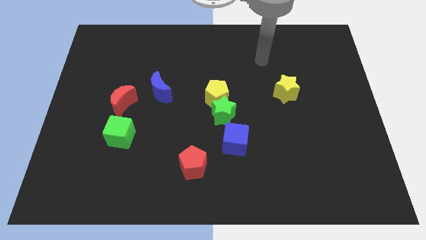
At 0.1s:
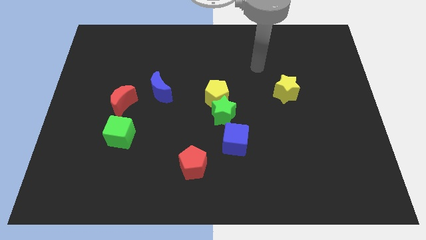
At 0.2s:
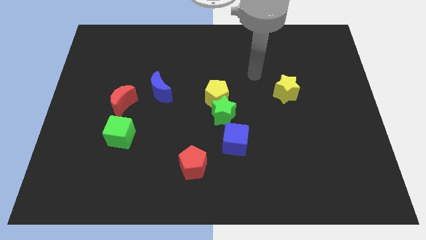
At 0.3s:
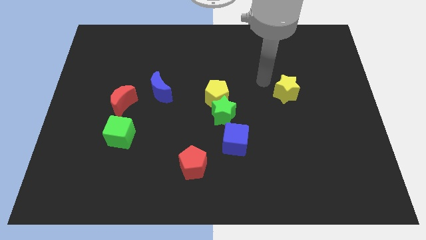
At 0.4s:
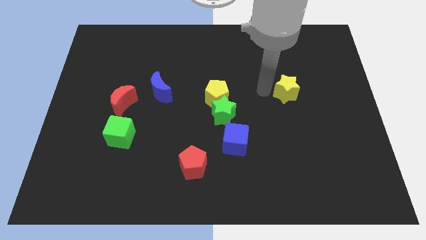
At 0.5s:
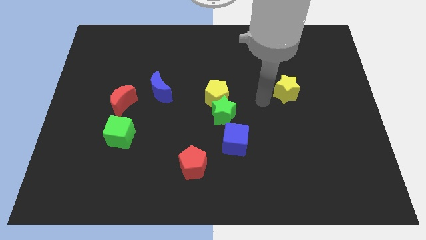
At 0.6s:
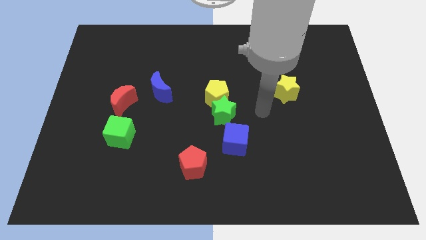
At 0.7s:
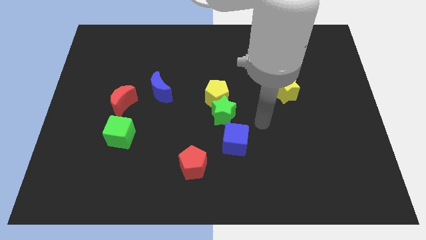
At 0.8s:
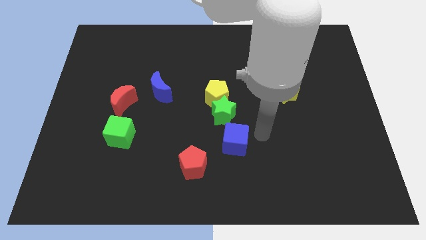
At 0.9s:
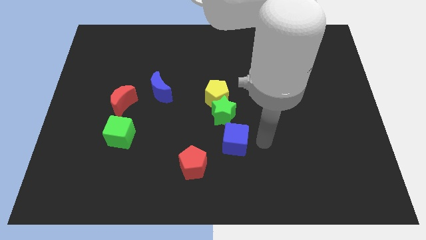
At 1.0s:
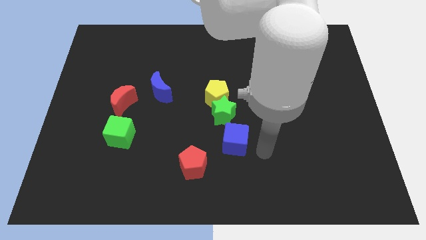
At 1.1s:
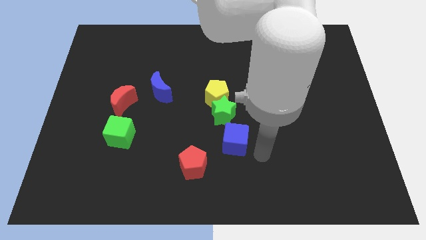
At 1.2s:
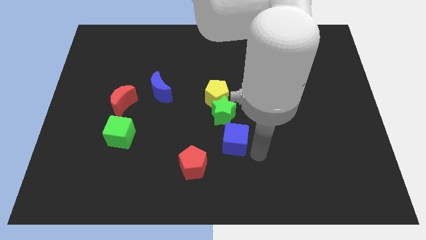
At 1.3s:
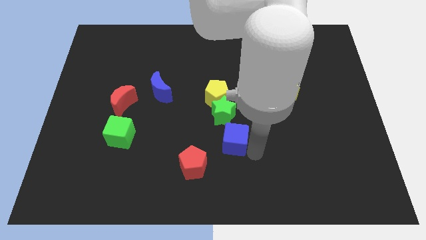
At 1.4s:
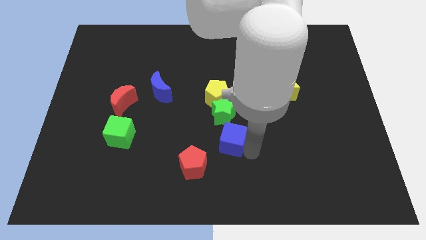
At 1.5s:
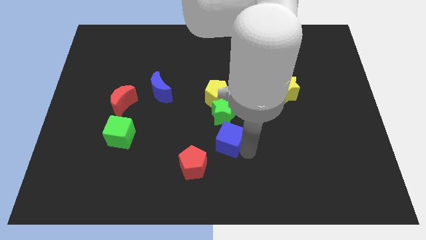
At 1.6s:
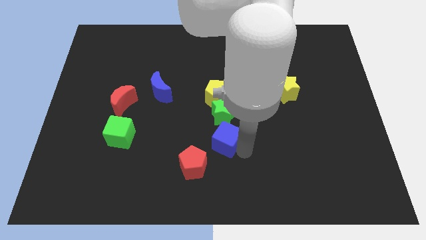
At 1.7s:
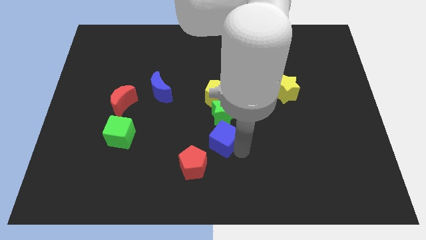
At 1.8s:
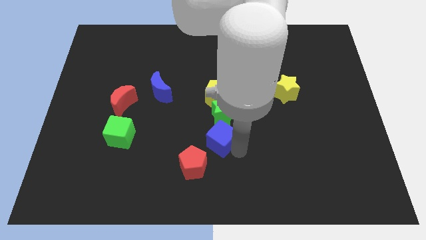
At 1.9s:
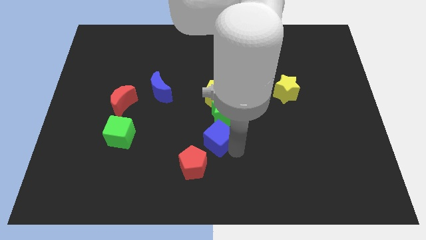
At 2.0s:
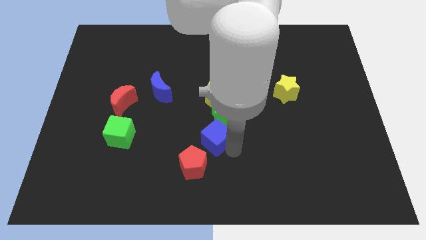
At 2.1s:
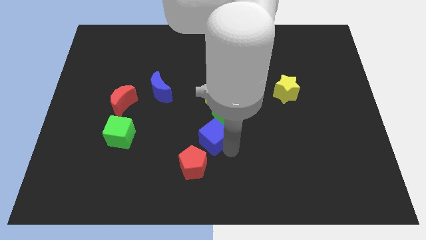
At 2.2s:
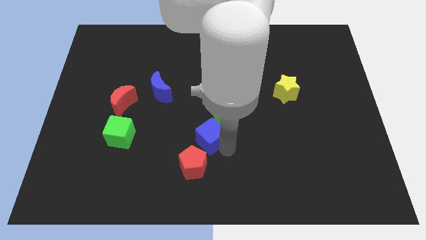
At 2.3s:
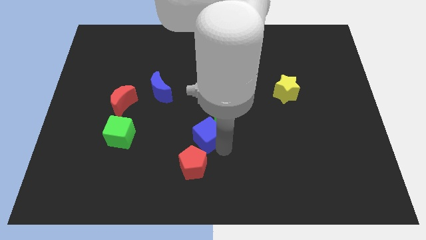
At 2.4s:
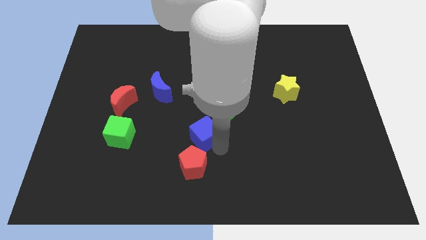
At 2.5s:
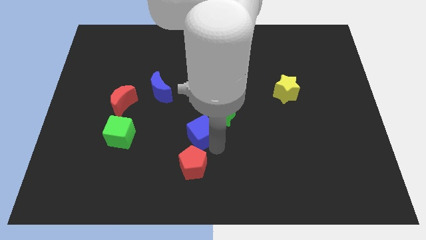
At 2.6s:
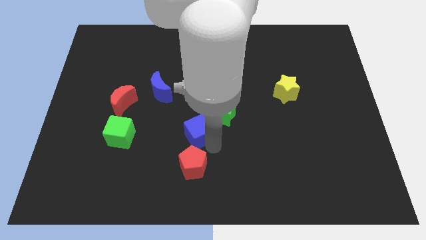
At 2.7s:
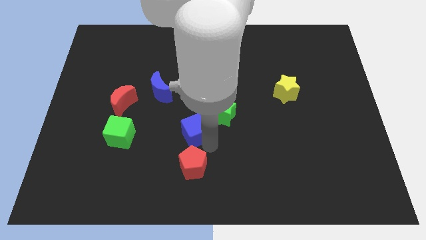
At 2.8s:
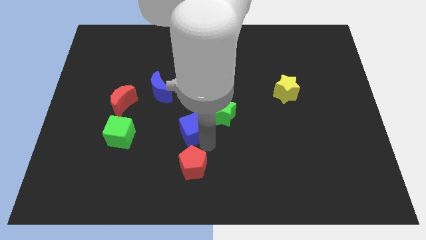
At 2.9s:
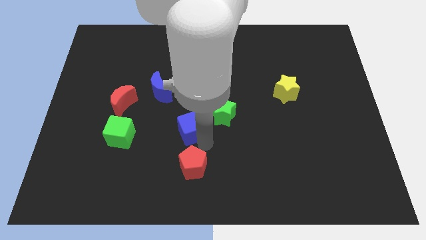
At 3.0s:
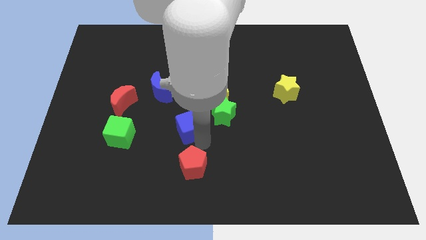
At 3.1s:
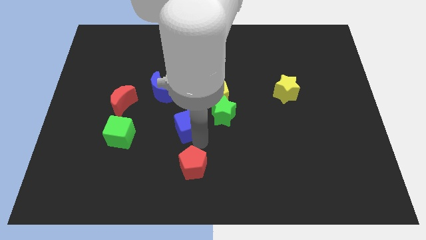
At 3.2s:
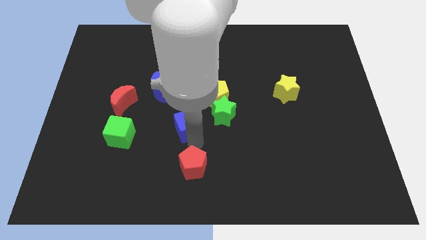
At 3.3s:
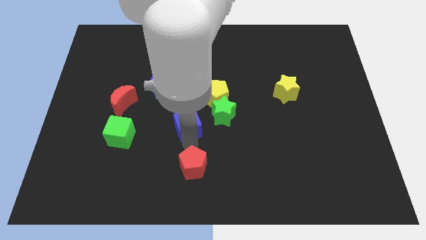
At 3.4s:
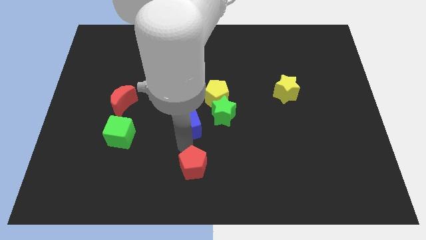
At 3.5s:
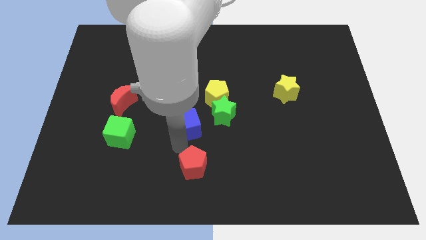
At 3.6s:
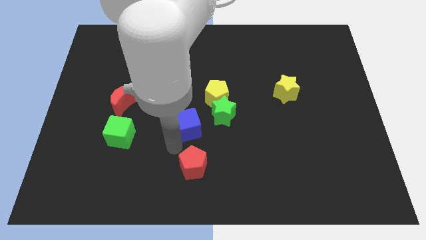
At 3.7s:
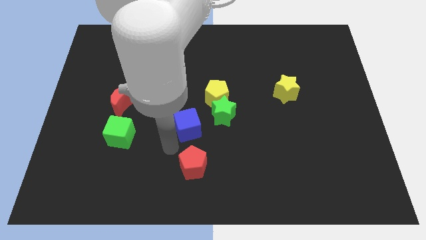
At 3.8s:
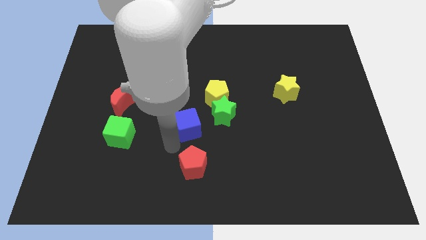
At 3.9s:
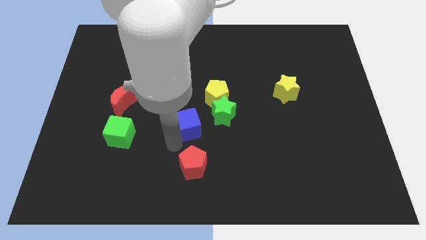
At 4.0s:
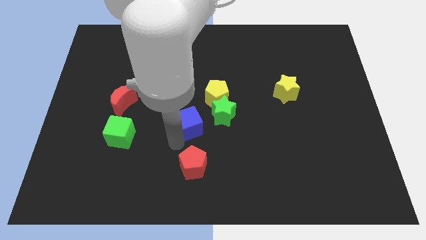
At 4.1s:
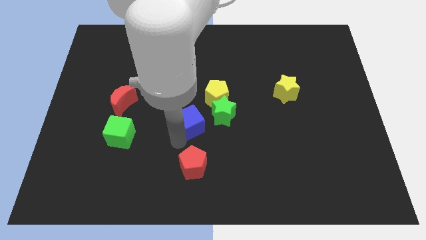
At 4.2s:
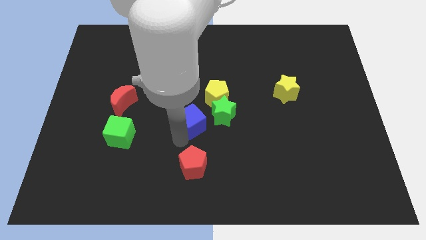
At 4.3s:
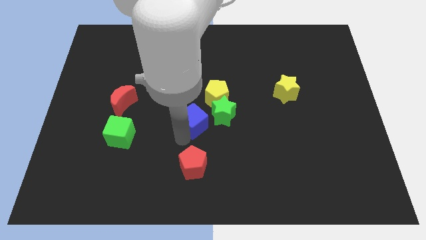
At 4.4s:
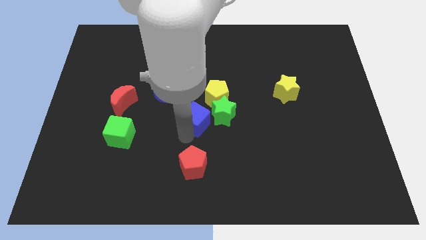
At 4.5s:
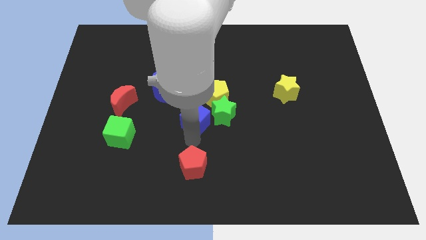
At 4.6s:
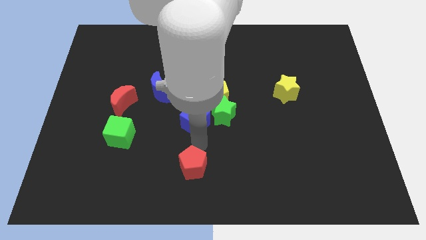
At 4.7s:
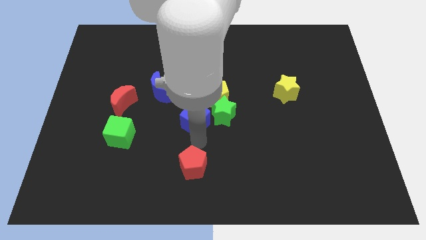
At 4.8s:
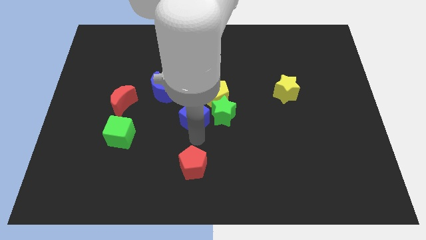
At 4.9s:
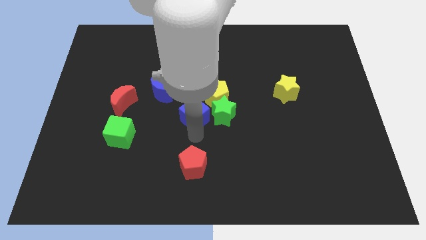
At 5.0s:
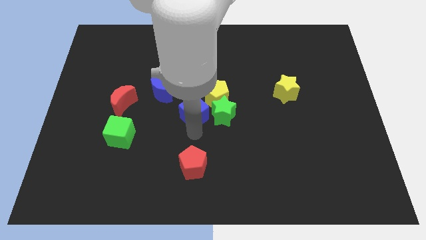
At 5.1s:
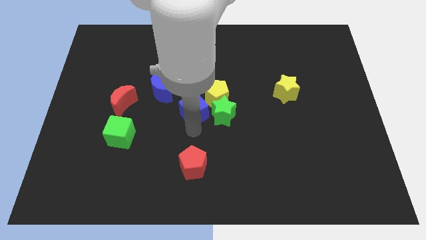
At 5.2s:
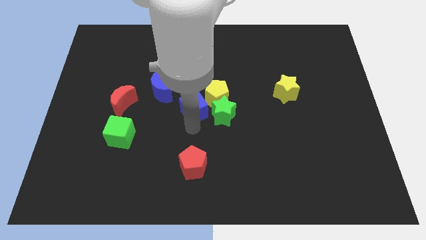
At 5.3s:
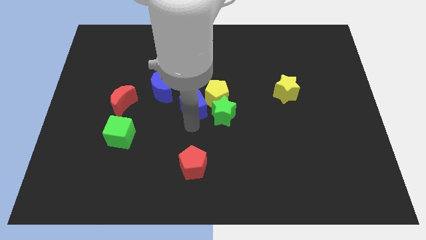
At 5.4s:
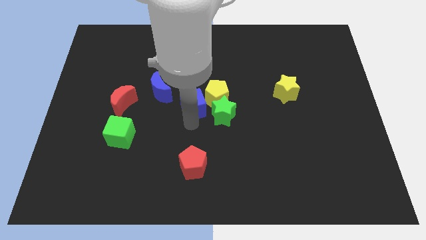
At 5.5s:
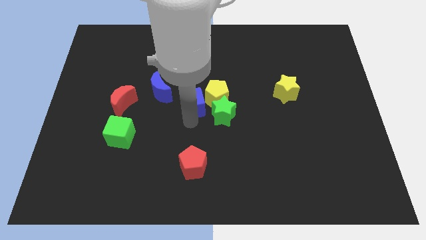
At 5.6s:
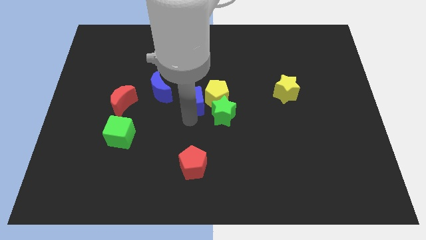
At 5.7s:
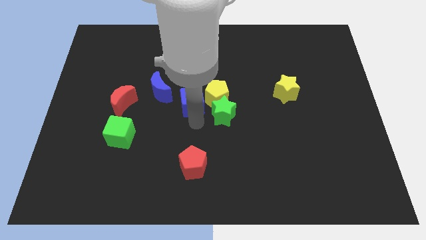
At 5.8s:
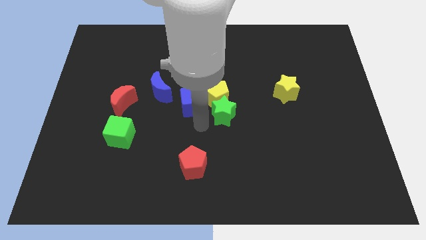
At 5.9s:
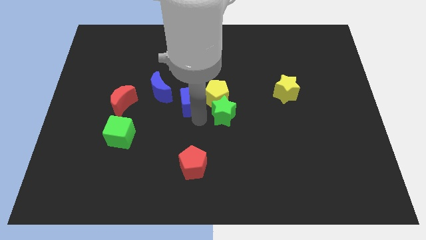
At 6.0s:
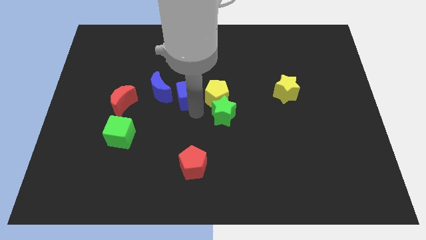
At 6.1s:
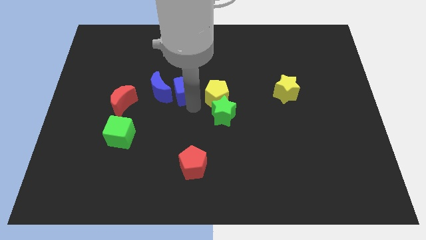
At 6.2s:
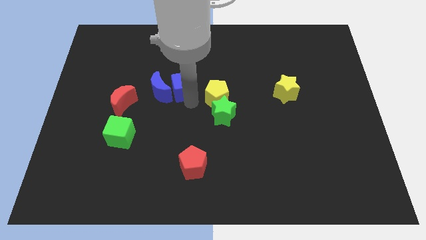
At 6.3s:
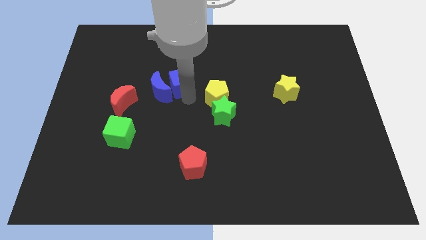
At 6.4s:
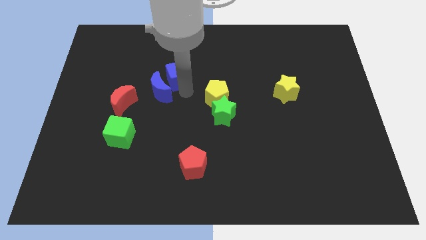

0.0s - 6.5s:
put the blue cube above the blue moon
